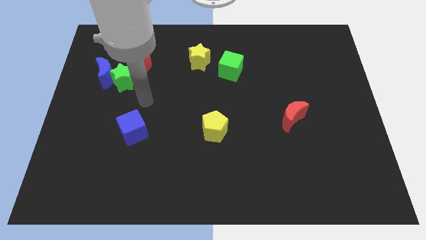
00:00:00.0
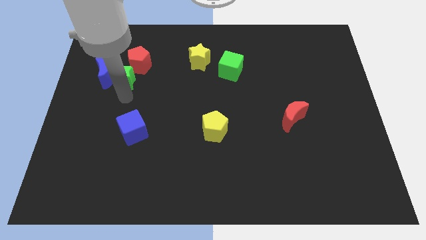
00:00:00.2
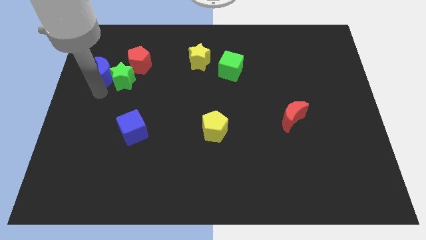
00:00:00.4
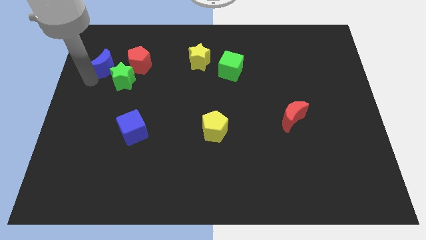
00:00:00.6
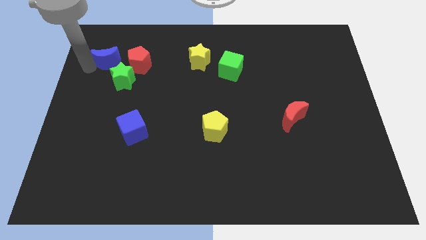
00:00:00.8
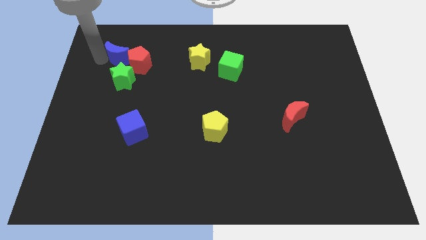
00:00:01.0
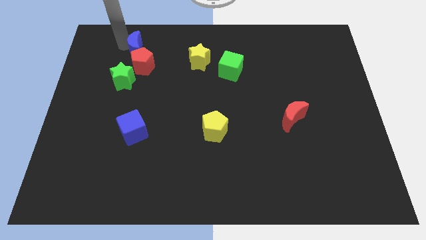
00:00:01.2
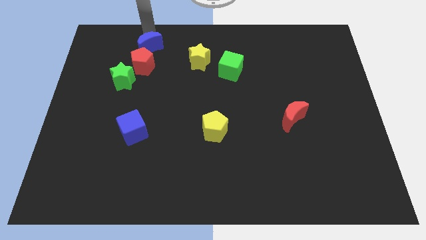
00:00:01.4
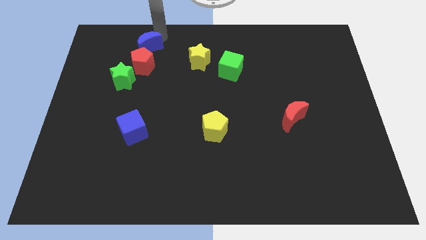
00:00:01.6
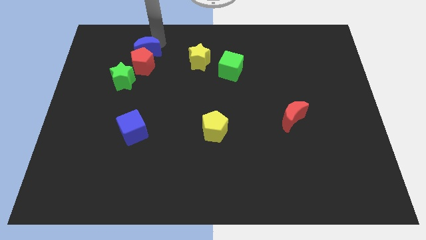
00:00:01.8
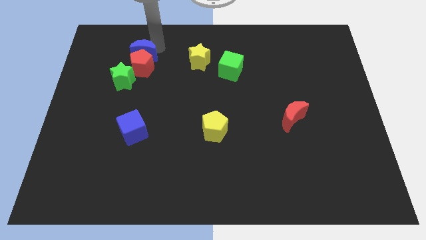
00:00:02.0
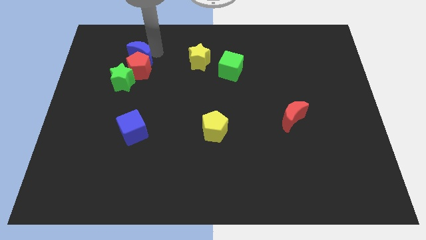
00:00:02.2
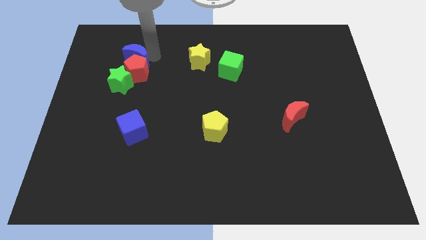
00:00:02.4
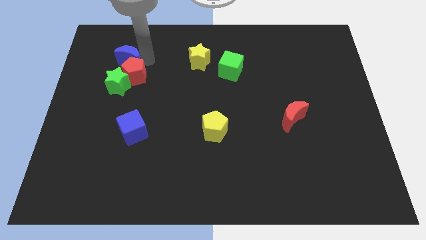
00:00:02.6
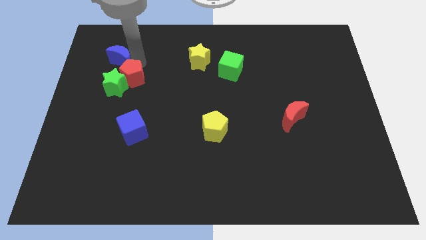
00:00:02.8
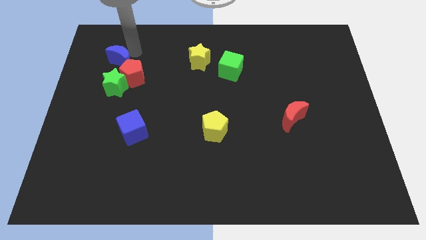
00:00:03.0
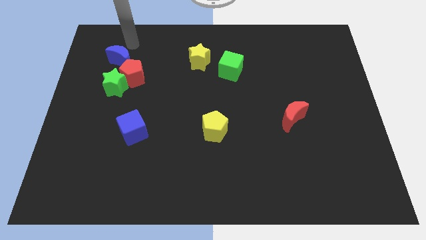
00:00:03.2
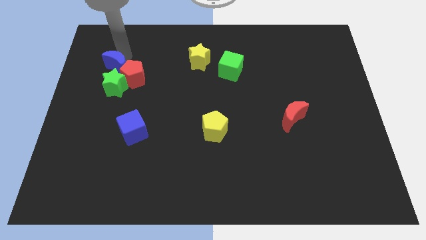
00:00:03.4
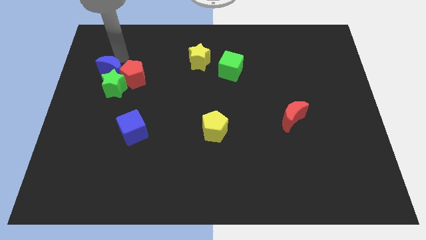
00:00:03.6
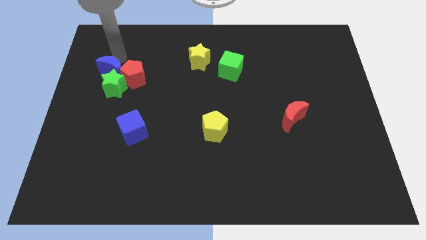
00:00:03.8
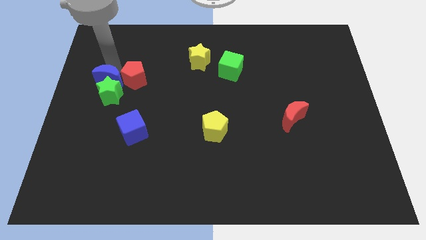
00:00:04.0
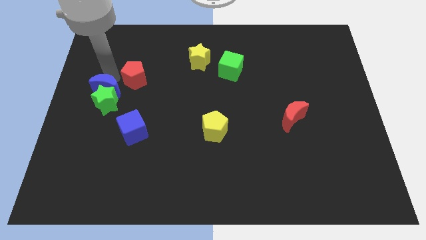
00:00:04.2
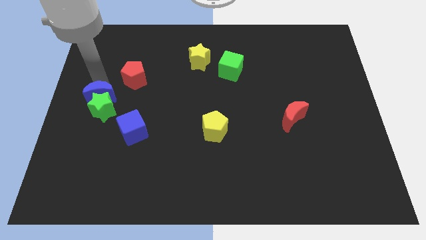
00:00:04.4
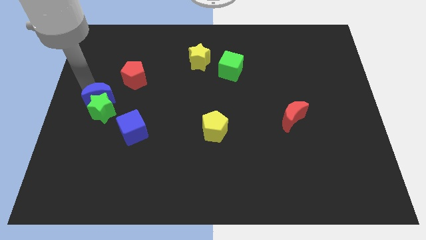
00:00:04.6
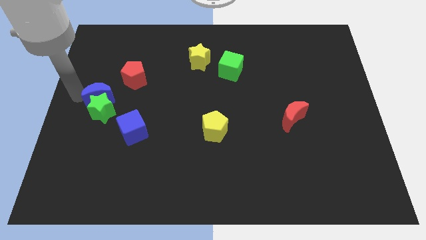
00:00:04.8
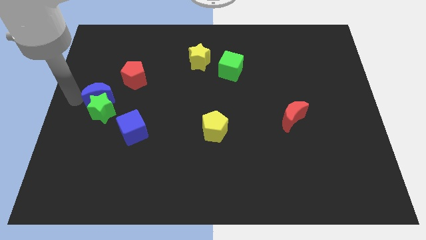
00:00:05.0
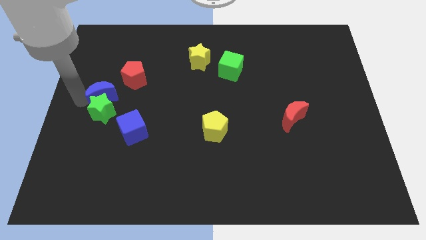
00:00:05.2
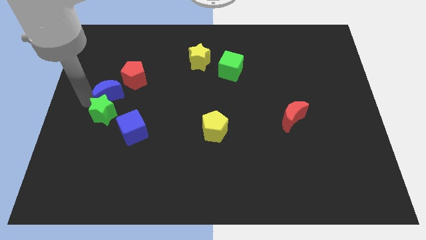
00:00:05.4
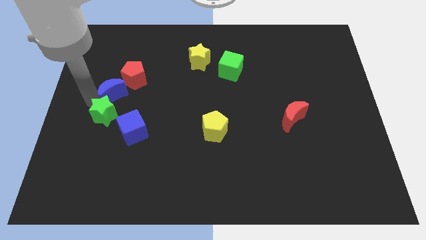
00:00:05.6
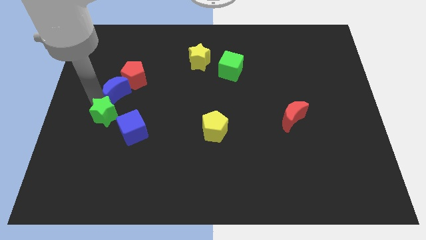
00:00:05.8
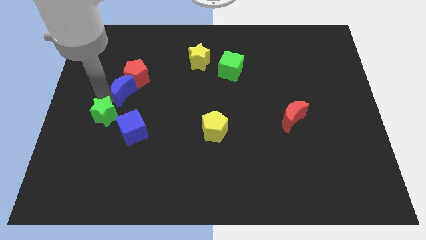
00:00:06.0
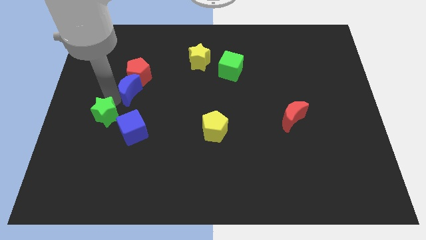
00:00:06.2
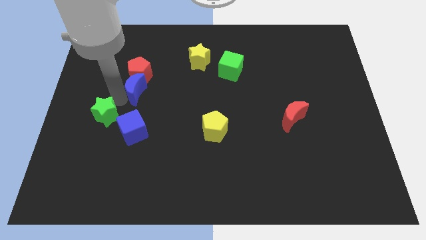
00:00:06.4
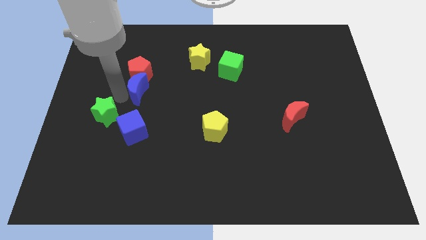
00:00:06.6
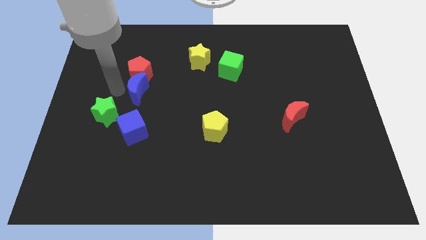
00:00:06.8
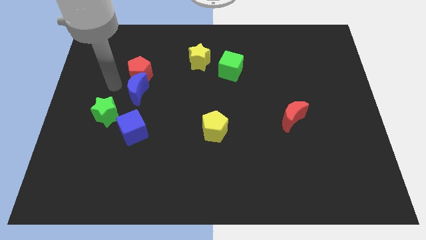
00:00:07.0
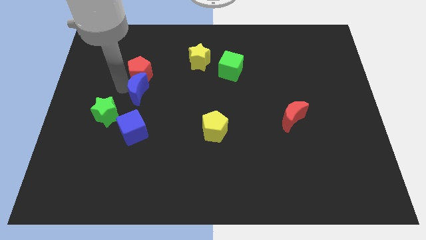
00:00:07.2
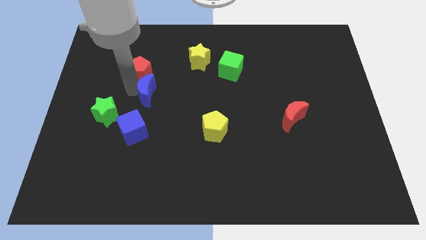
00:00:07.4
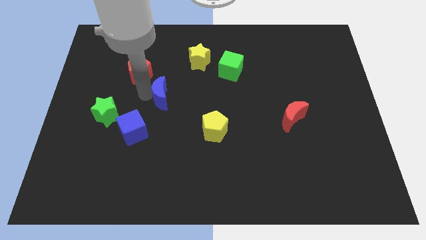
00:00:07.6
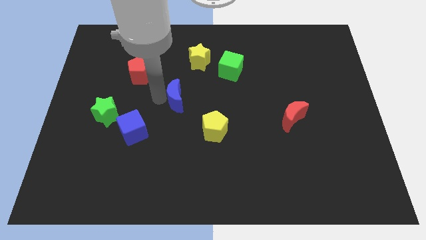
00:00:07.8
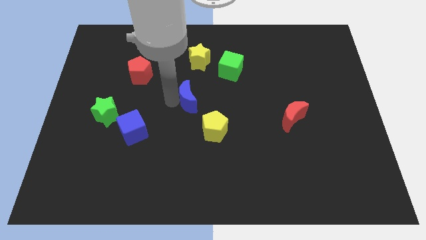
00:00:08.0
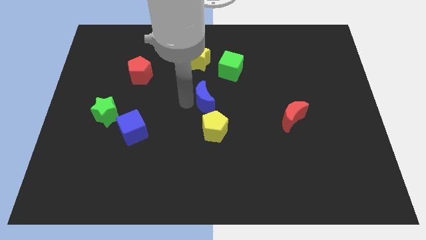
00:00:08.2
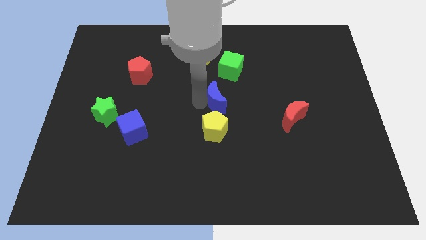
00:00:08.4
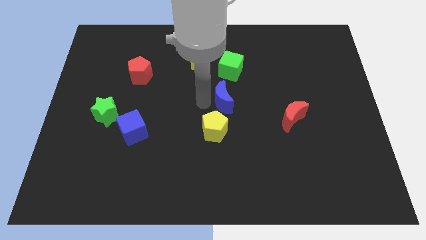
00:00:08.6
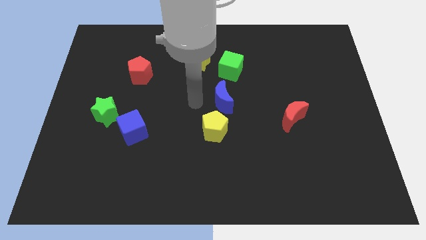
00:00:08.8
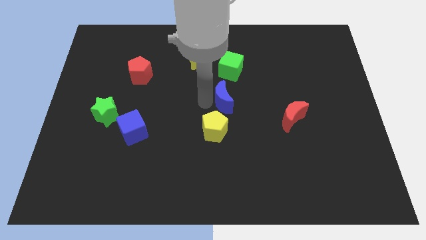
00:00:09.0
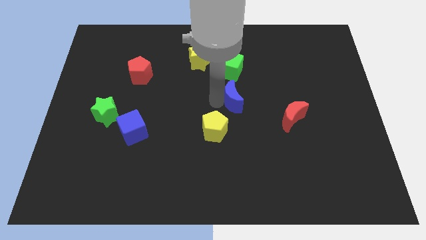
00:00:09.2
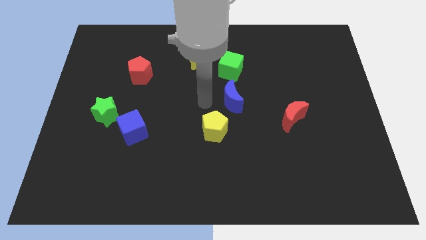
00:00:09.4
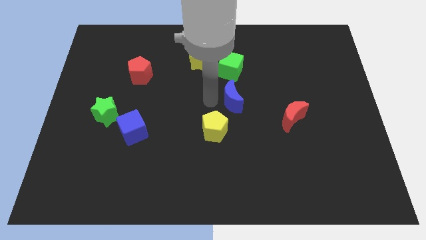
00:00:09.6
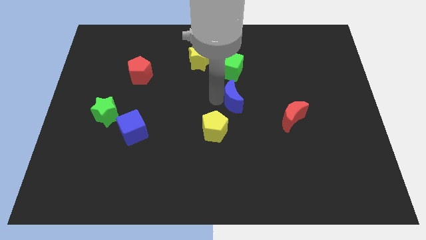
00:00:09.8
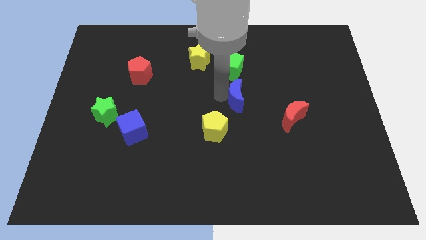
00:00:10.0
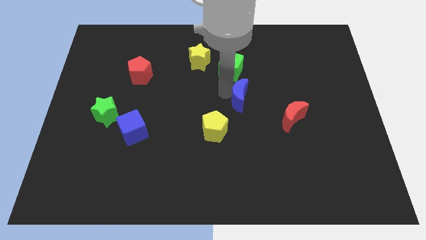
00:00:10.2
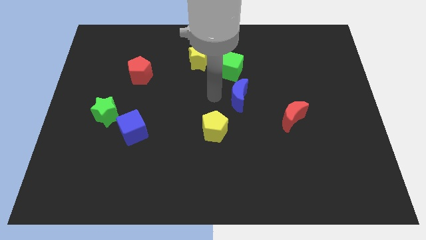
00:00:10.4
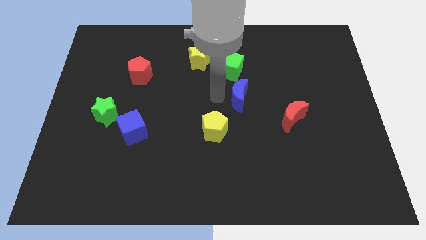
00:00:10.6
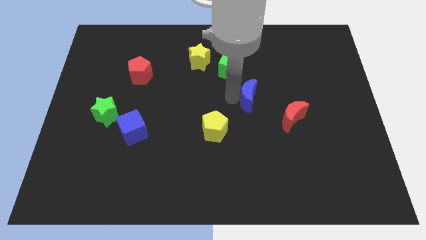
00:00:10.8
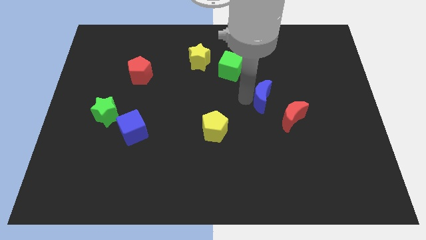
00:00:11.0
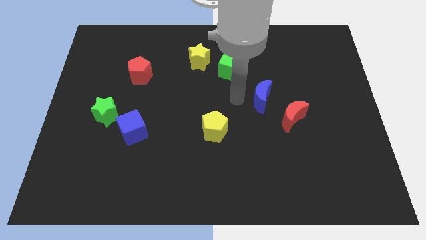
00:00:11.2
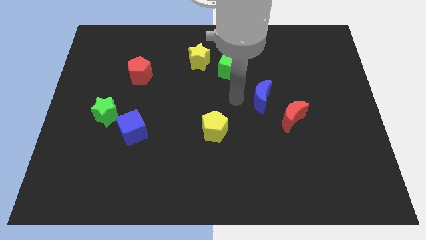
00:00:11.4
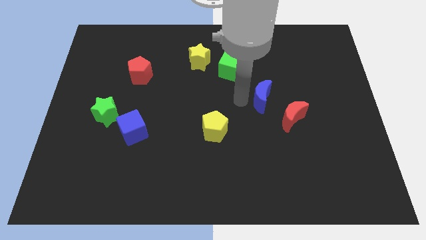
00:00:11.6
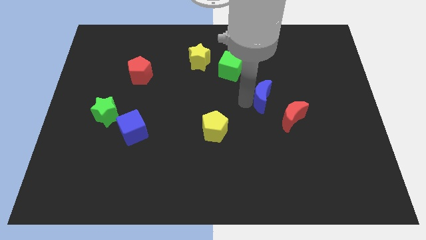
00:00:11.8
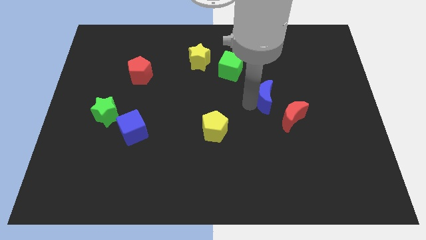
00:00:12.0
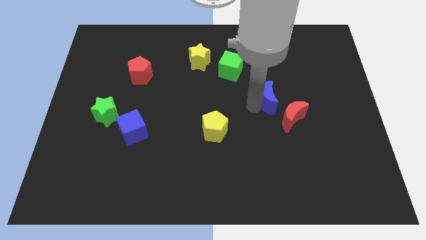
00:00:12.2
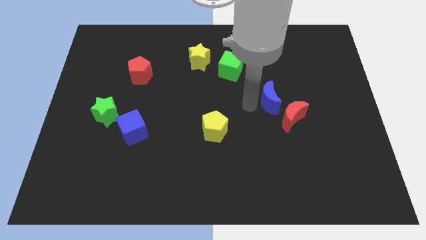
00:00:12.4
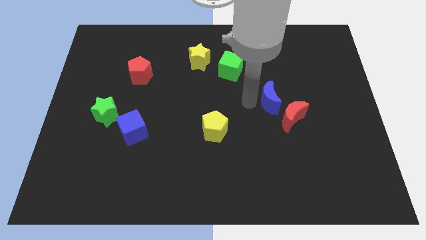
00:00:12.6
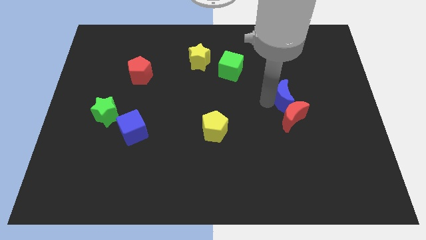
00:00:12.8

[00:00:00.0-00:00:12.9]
slide the blue moon to the top right of the red moon

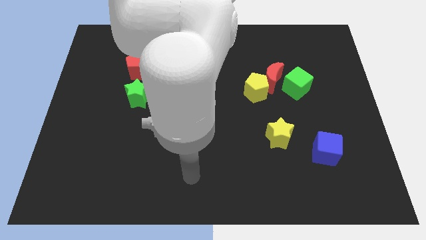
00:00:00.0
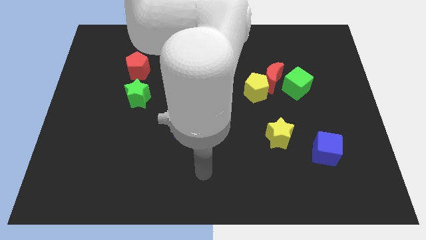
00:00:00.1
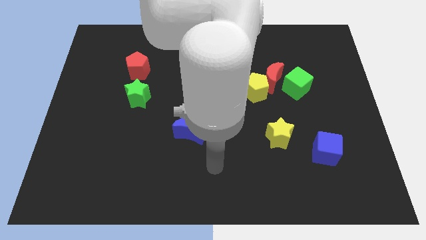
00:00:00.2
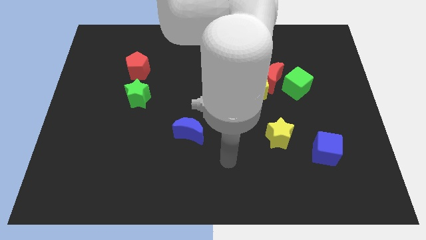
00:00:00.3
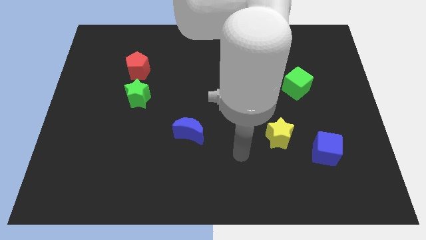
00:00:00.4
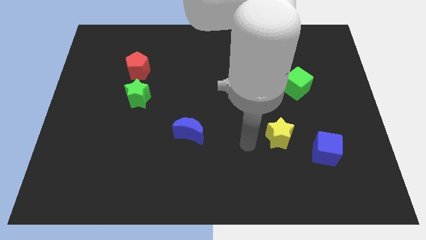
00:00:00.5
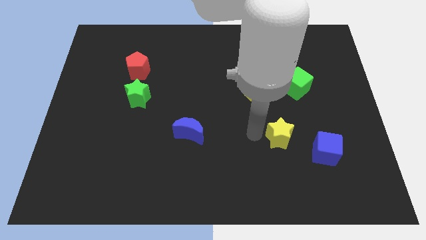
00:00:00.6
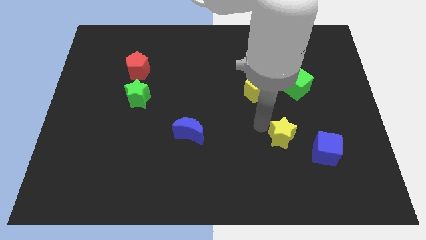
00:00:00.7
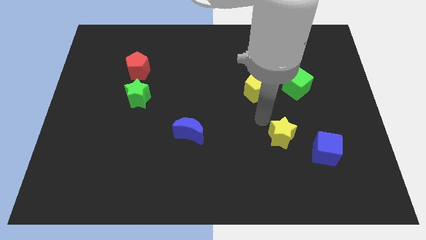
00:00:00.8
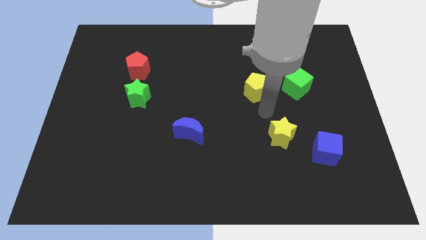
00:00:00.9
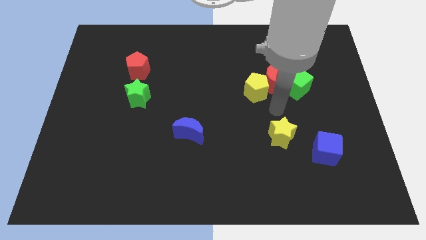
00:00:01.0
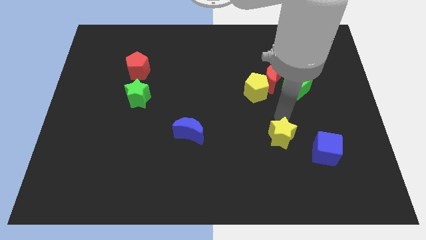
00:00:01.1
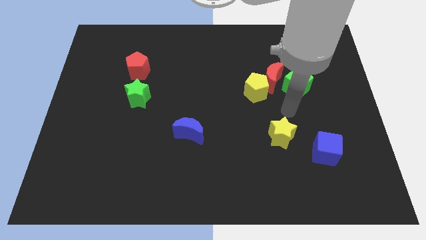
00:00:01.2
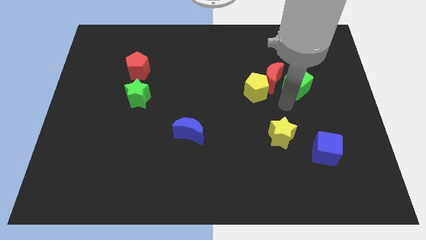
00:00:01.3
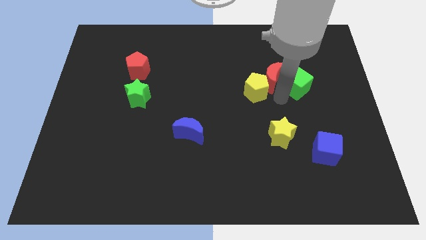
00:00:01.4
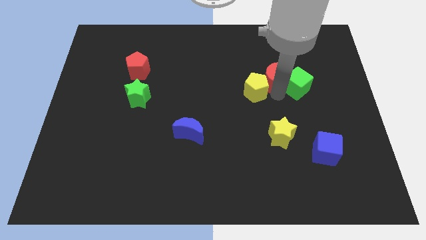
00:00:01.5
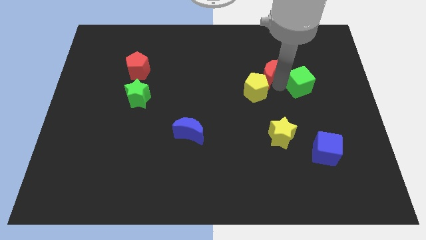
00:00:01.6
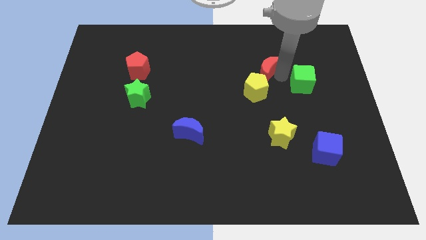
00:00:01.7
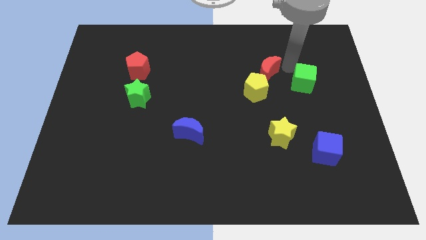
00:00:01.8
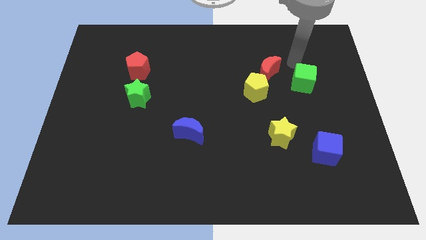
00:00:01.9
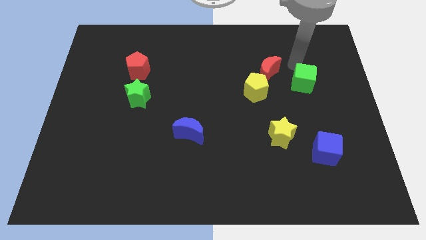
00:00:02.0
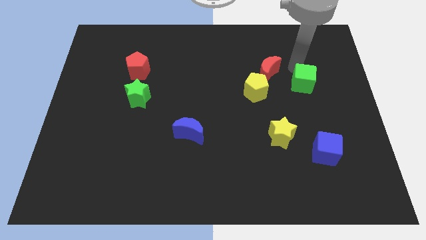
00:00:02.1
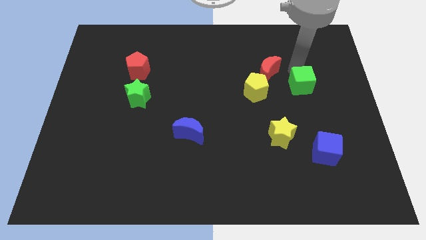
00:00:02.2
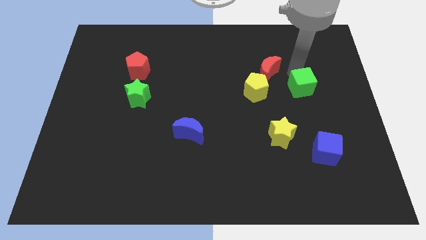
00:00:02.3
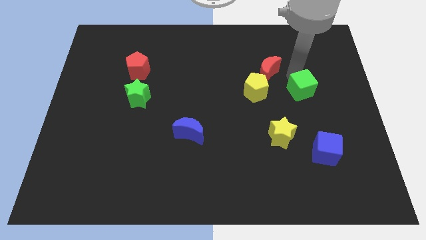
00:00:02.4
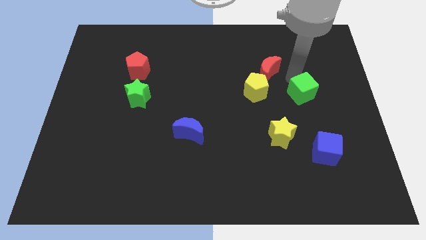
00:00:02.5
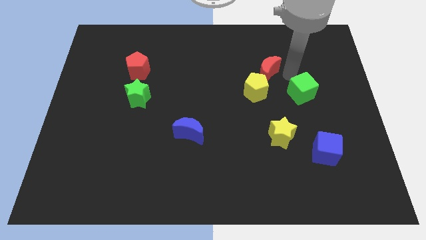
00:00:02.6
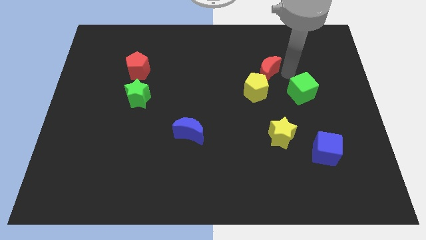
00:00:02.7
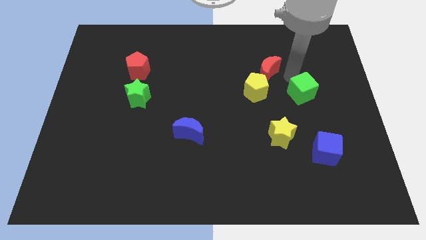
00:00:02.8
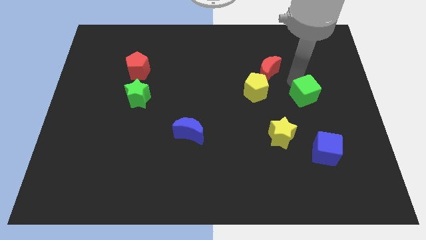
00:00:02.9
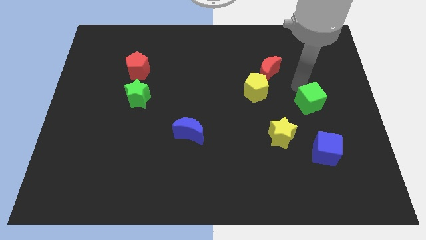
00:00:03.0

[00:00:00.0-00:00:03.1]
push the green cube to the top side of the blue cube
